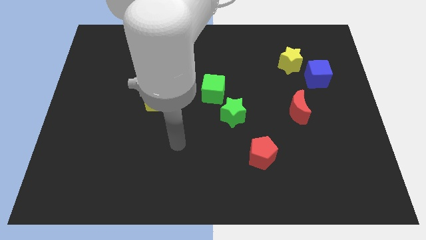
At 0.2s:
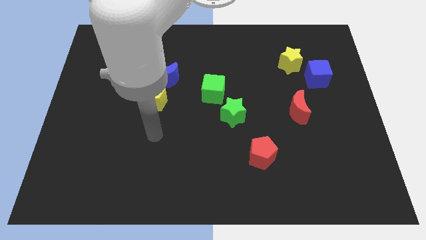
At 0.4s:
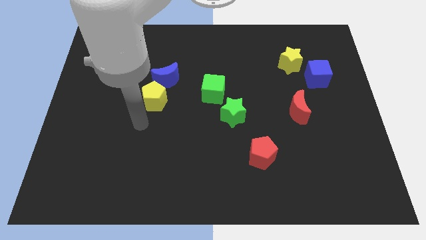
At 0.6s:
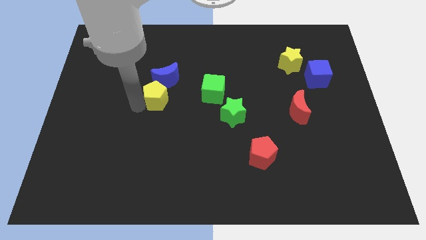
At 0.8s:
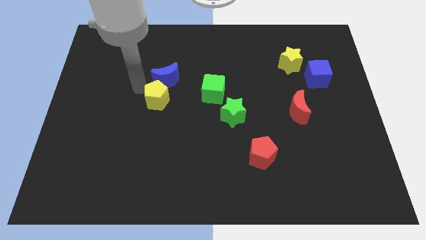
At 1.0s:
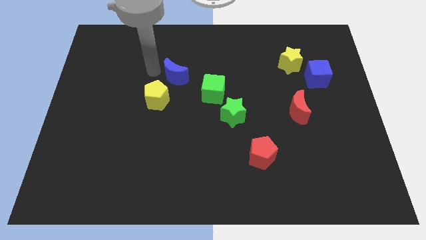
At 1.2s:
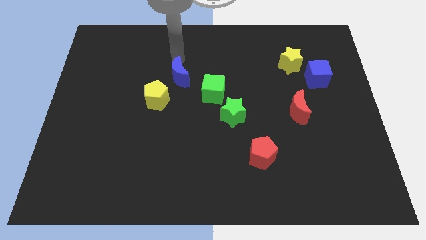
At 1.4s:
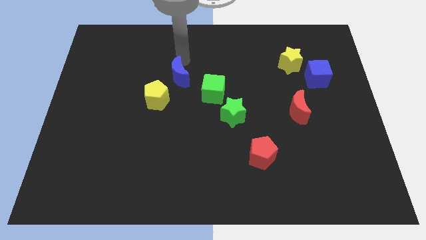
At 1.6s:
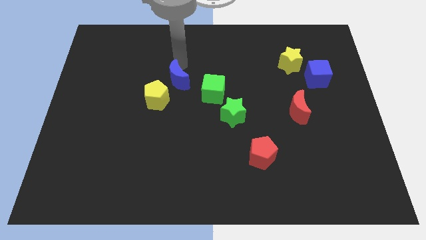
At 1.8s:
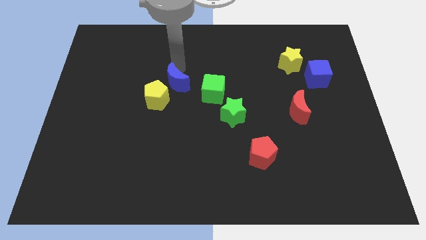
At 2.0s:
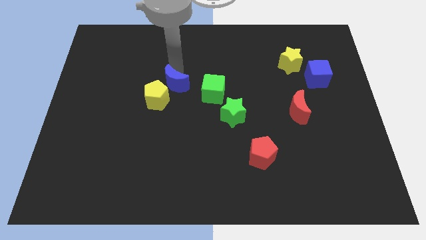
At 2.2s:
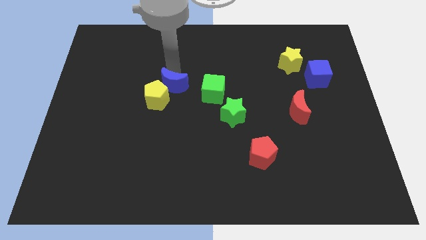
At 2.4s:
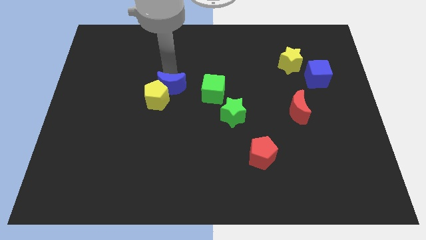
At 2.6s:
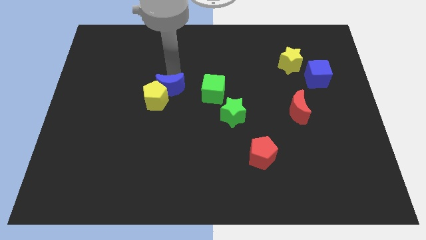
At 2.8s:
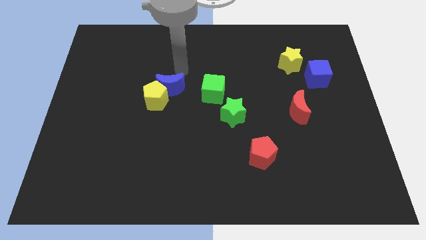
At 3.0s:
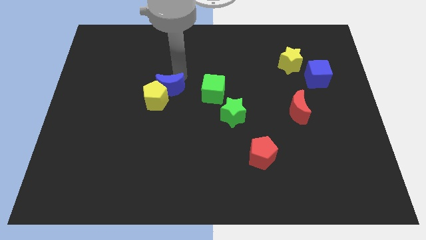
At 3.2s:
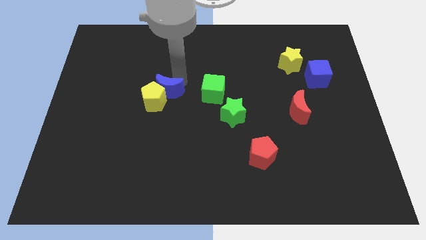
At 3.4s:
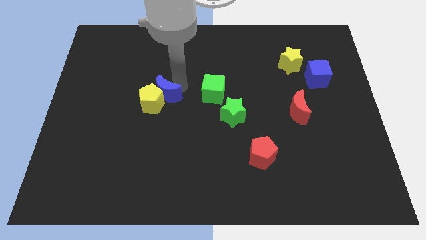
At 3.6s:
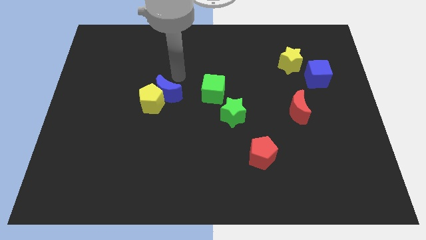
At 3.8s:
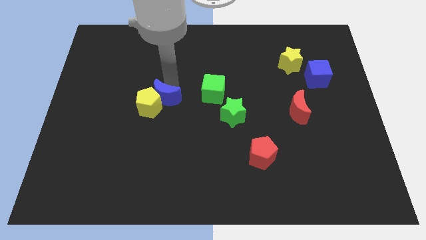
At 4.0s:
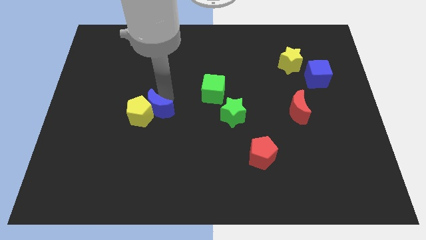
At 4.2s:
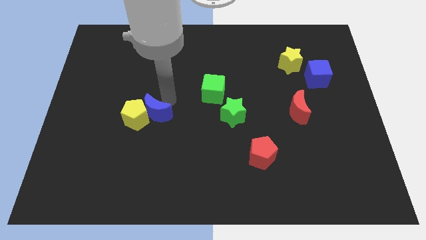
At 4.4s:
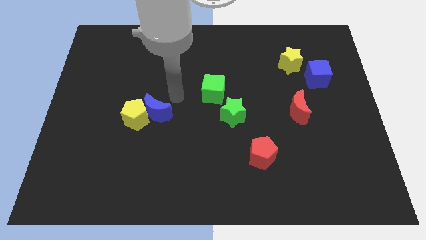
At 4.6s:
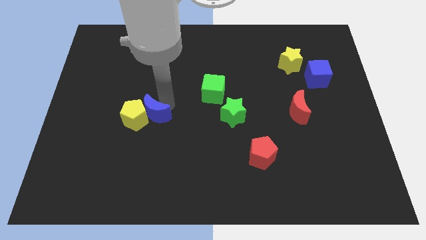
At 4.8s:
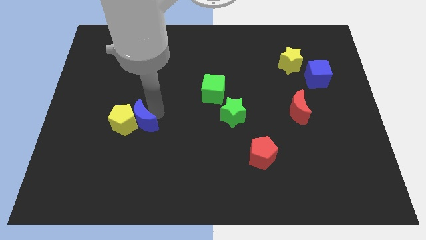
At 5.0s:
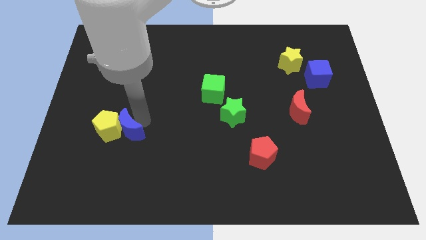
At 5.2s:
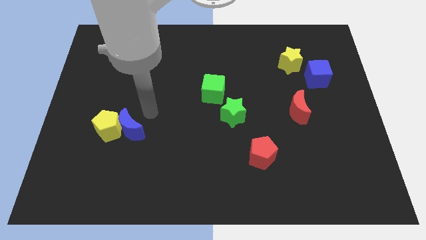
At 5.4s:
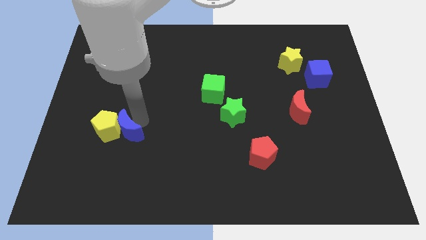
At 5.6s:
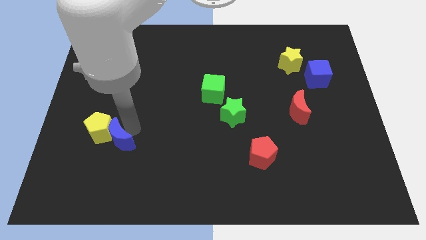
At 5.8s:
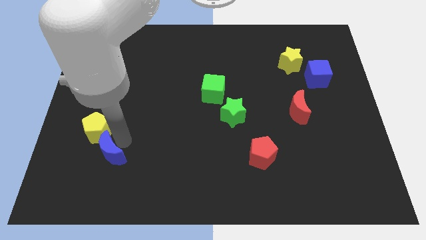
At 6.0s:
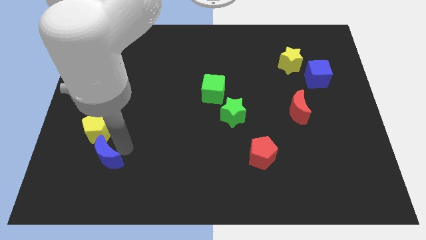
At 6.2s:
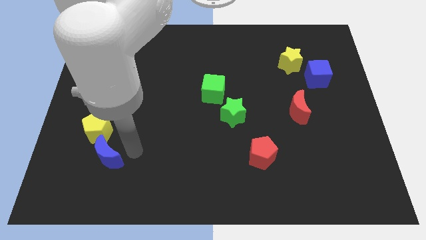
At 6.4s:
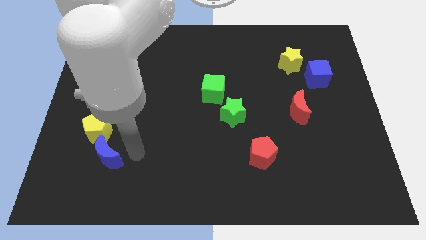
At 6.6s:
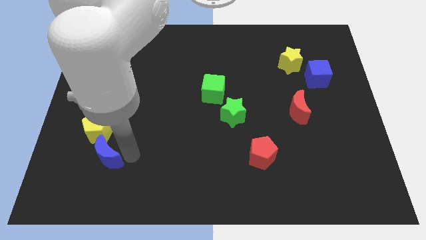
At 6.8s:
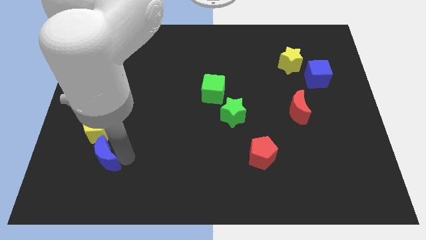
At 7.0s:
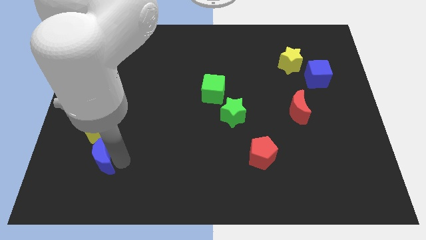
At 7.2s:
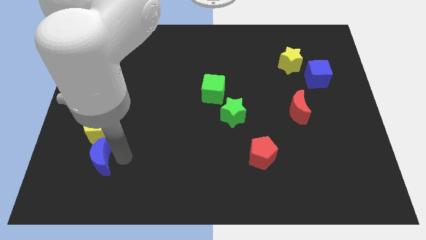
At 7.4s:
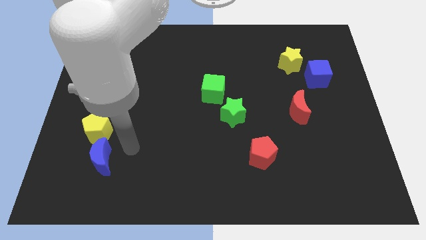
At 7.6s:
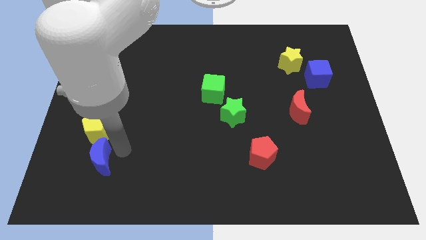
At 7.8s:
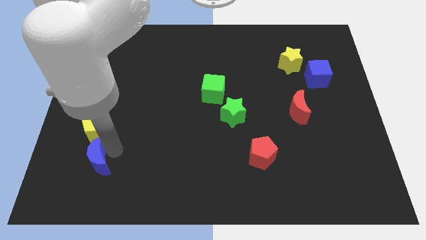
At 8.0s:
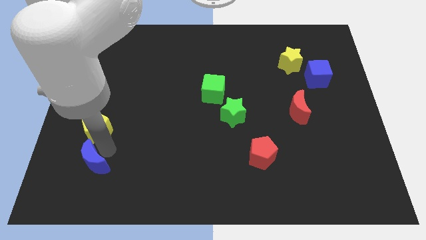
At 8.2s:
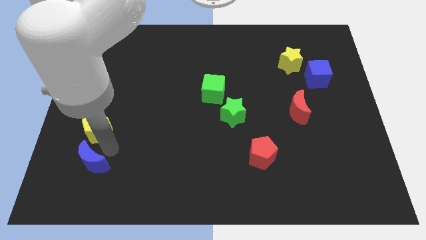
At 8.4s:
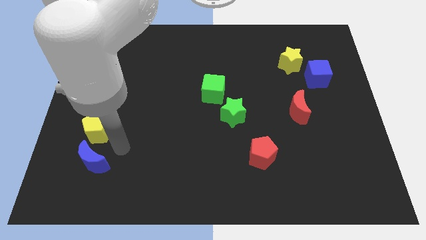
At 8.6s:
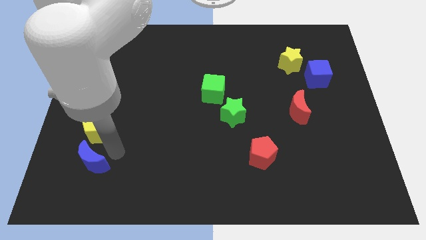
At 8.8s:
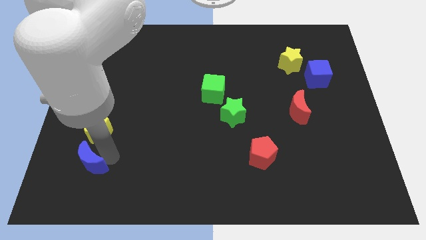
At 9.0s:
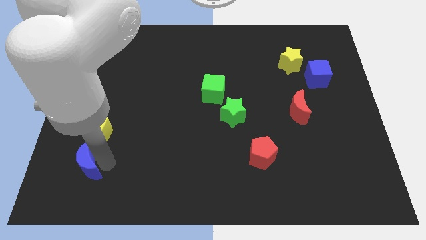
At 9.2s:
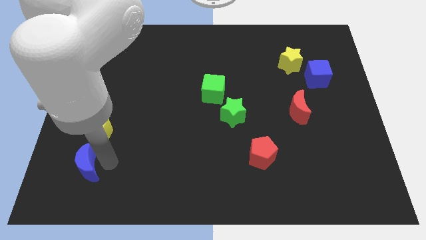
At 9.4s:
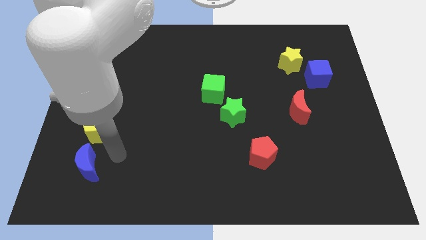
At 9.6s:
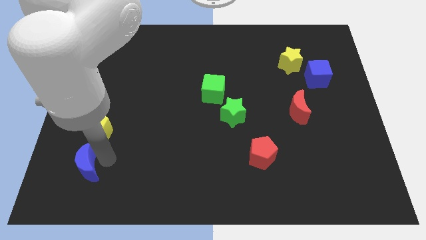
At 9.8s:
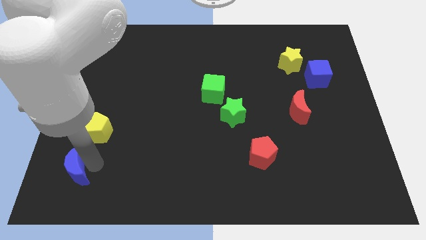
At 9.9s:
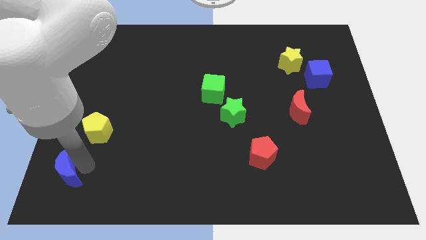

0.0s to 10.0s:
slide the blue moon to the bottom left

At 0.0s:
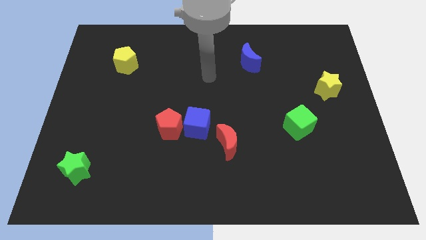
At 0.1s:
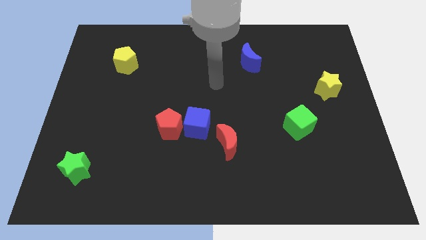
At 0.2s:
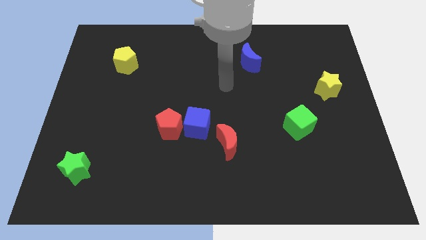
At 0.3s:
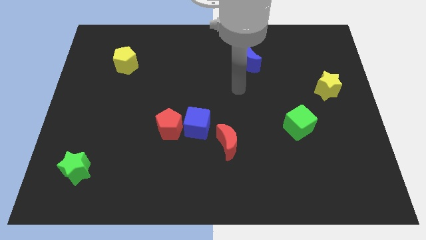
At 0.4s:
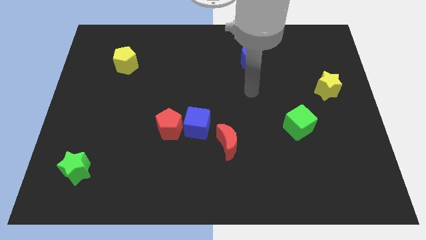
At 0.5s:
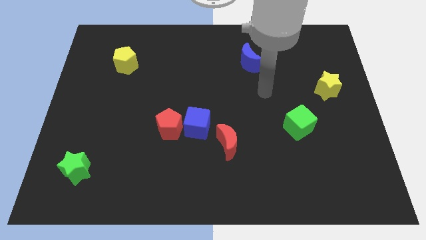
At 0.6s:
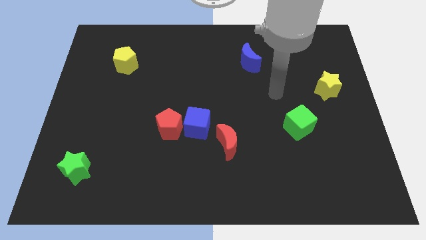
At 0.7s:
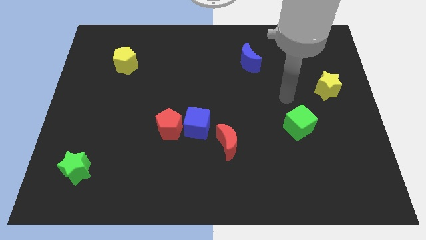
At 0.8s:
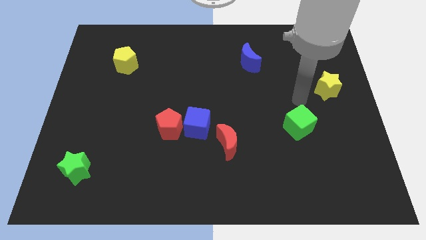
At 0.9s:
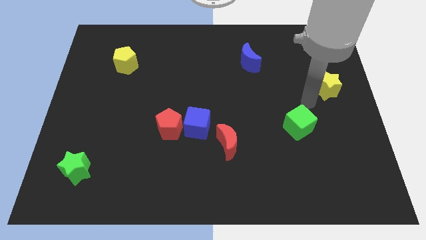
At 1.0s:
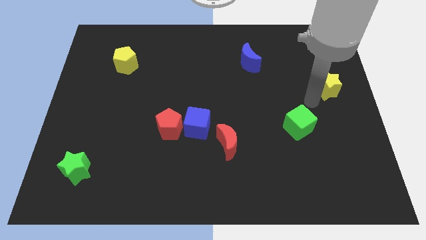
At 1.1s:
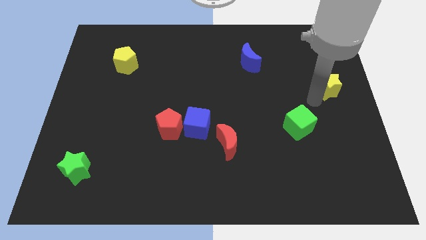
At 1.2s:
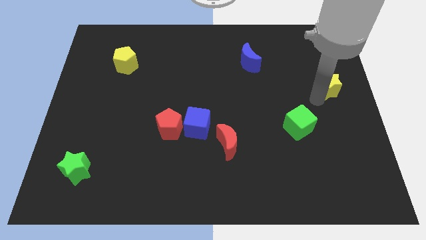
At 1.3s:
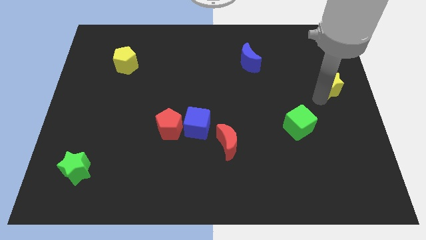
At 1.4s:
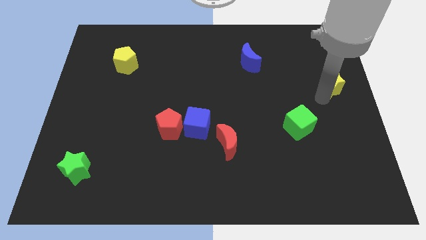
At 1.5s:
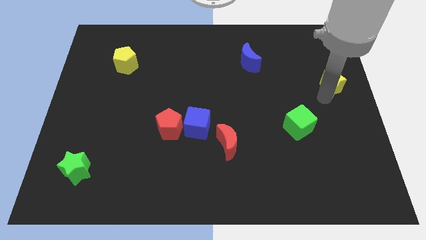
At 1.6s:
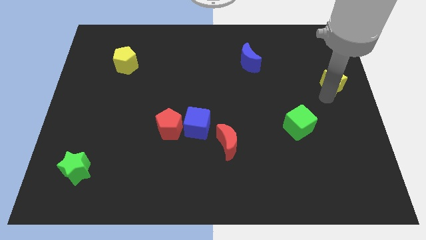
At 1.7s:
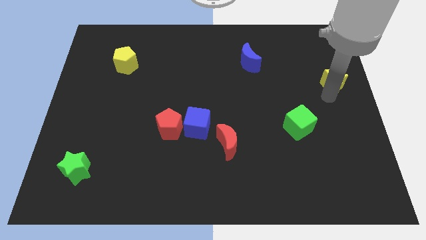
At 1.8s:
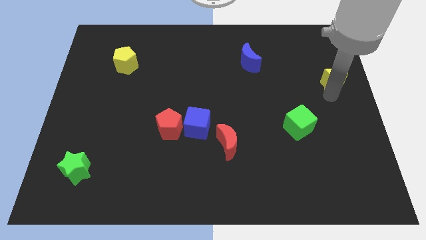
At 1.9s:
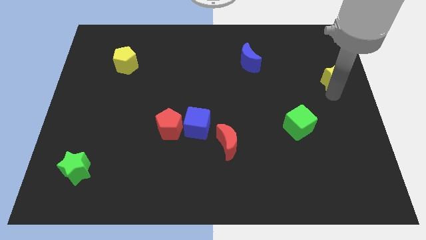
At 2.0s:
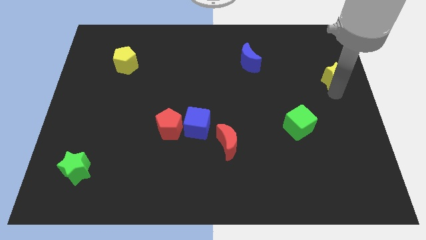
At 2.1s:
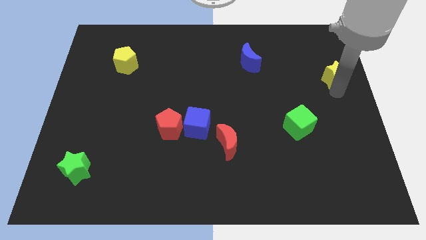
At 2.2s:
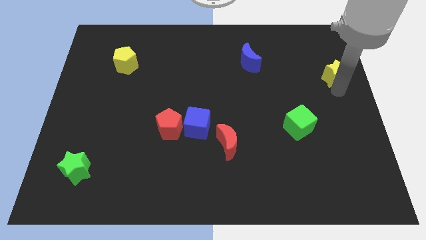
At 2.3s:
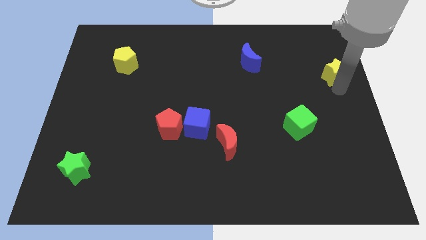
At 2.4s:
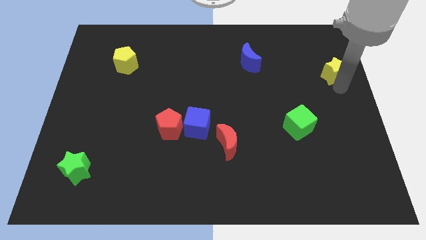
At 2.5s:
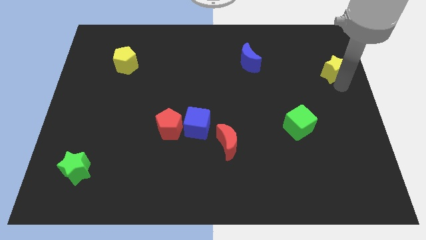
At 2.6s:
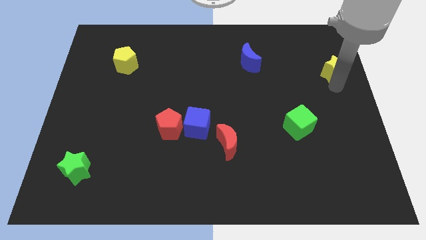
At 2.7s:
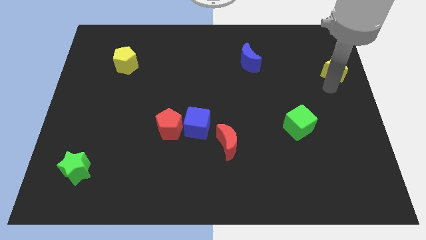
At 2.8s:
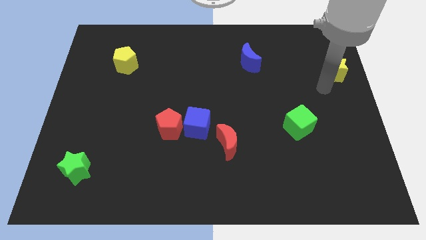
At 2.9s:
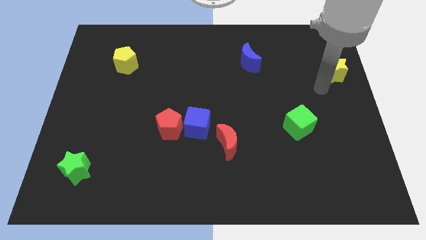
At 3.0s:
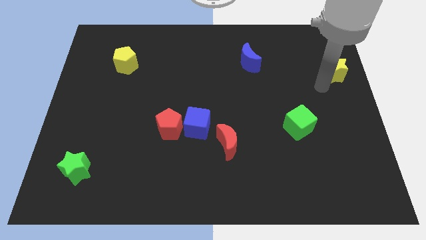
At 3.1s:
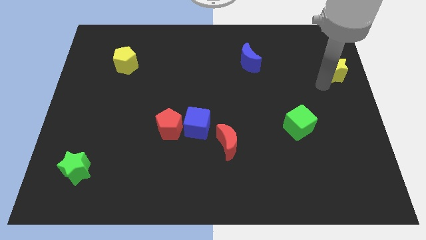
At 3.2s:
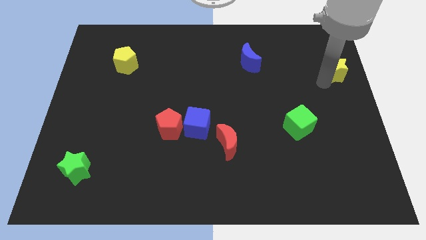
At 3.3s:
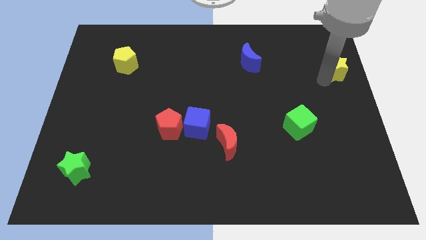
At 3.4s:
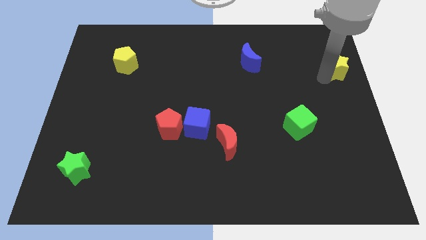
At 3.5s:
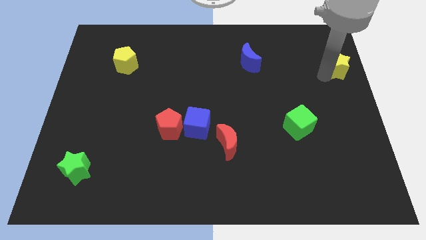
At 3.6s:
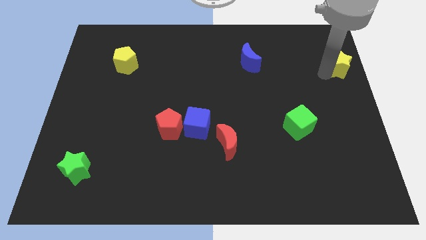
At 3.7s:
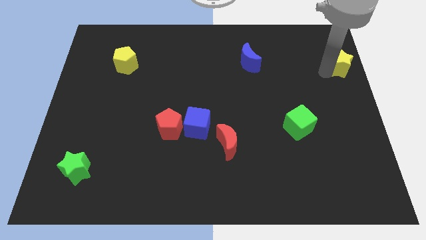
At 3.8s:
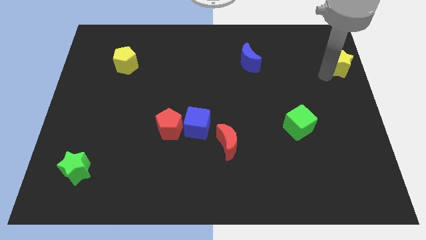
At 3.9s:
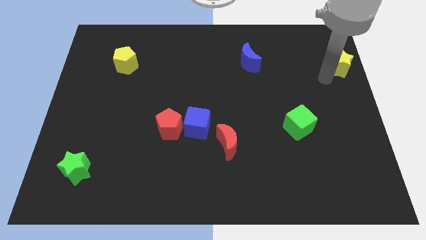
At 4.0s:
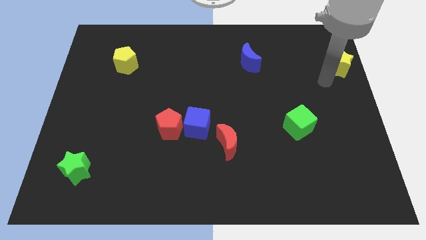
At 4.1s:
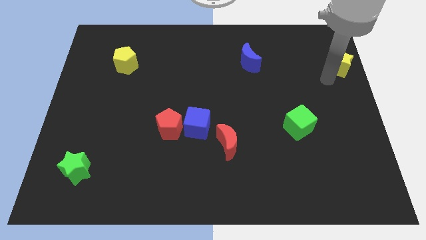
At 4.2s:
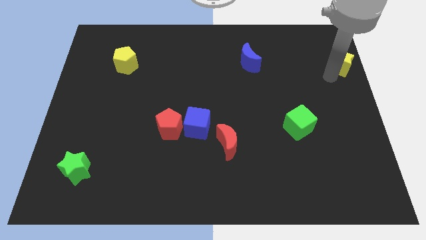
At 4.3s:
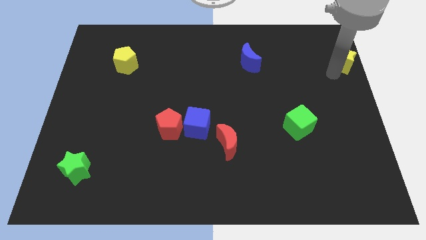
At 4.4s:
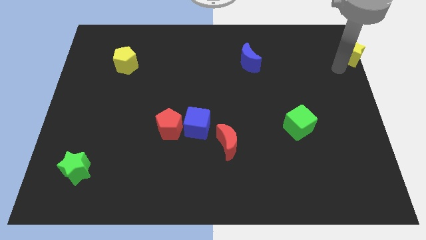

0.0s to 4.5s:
push the yellow star to the top right
